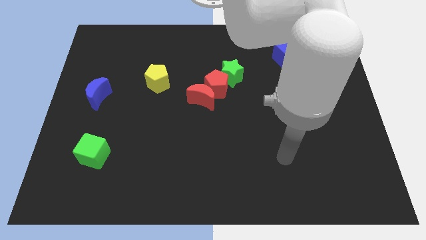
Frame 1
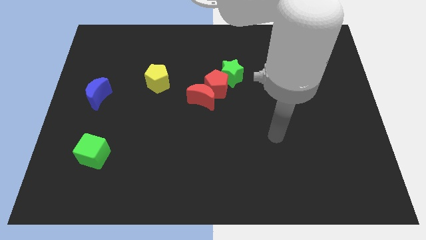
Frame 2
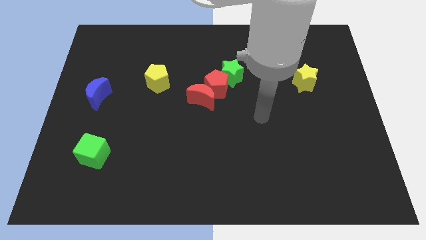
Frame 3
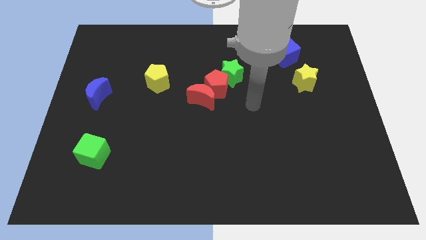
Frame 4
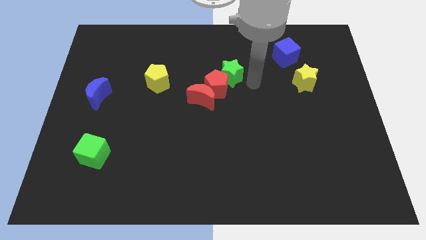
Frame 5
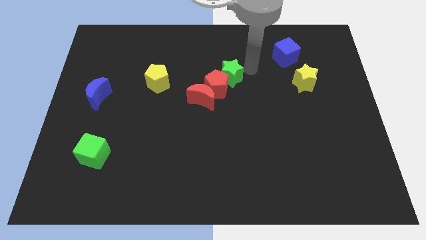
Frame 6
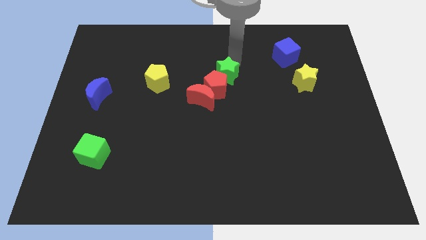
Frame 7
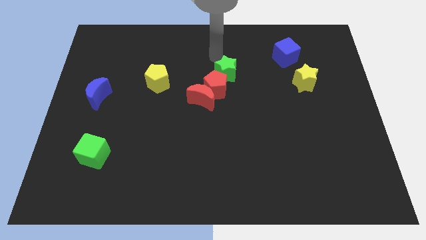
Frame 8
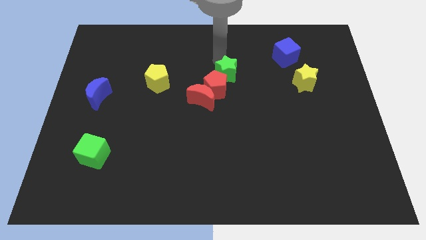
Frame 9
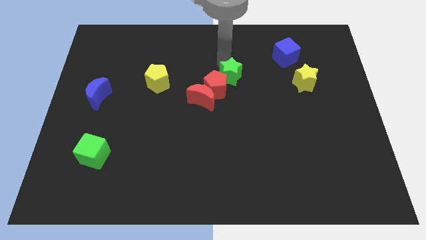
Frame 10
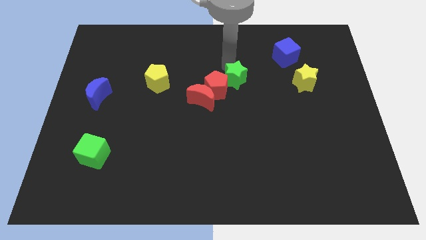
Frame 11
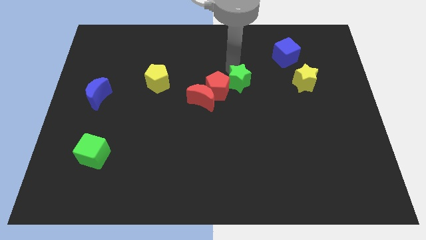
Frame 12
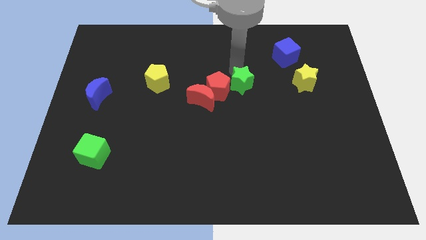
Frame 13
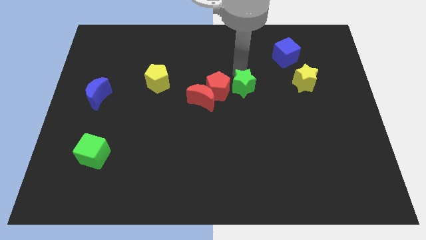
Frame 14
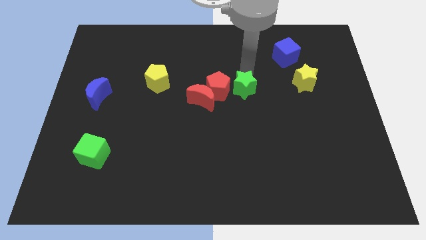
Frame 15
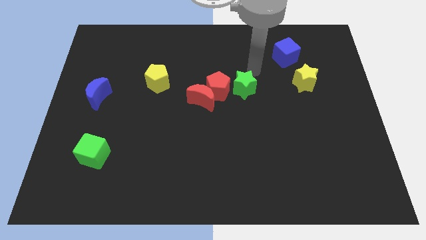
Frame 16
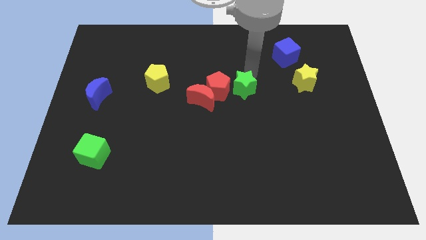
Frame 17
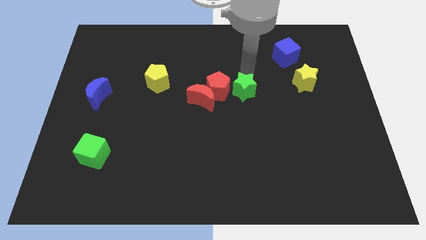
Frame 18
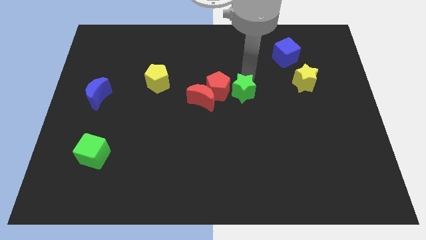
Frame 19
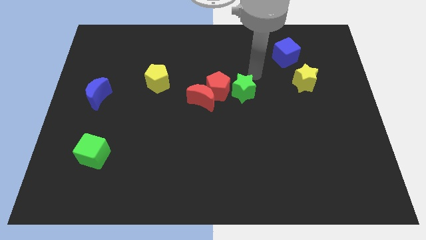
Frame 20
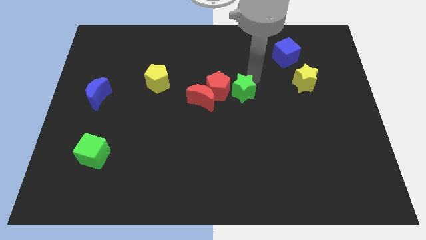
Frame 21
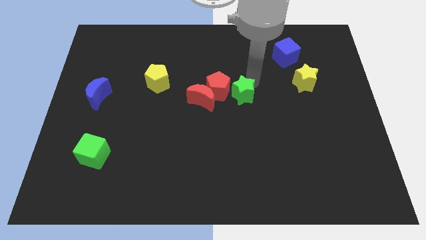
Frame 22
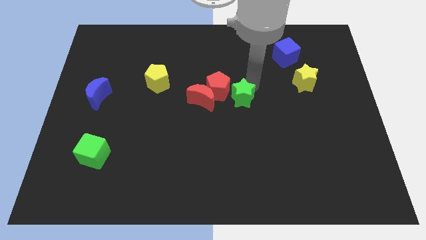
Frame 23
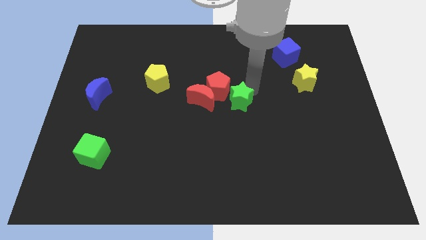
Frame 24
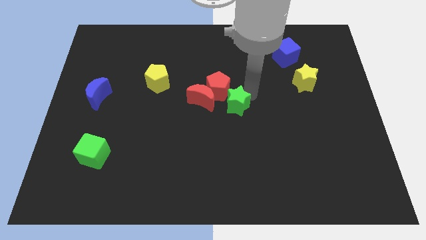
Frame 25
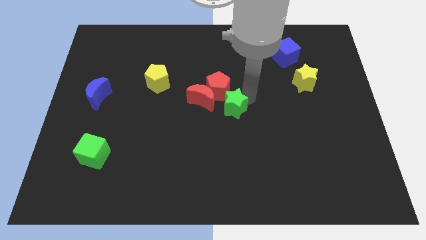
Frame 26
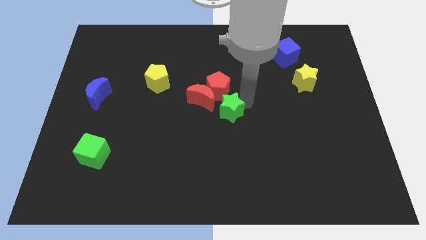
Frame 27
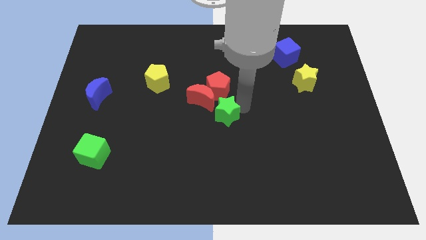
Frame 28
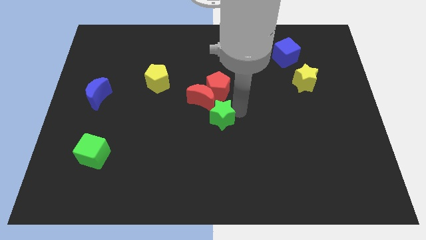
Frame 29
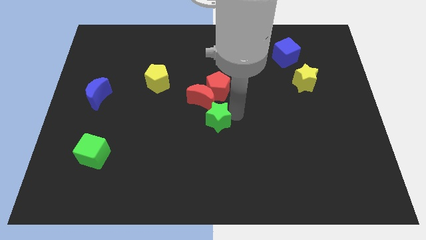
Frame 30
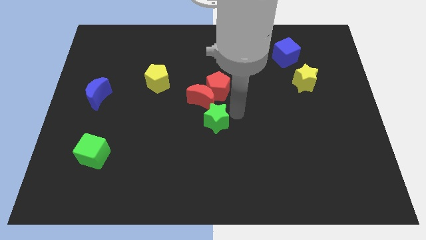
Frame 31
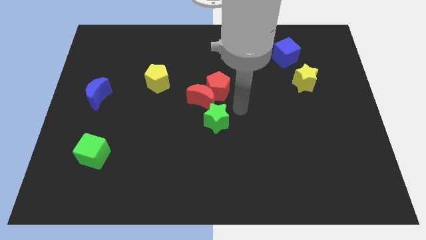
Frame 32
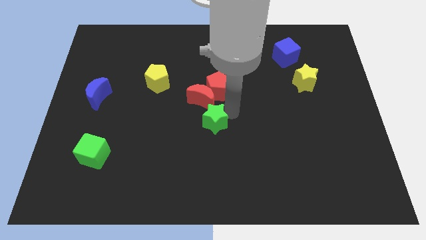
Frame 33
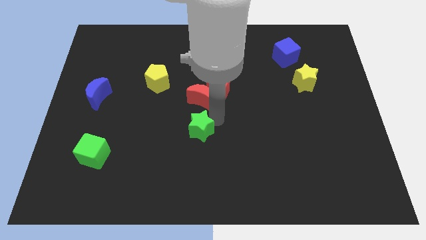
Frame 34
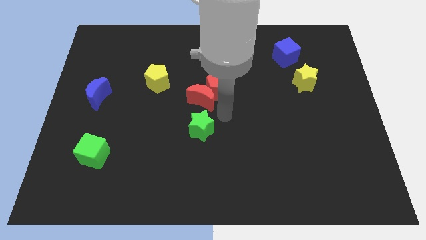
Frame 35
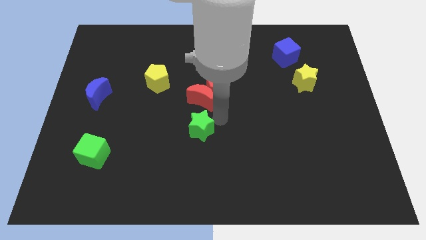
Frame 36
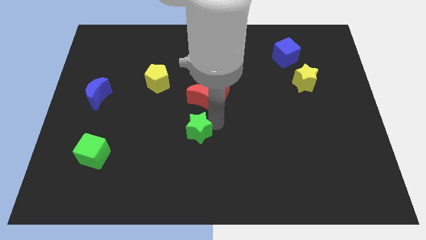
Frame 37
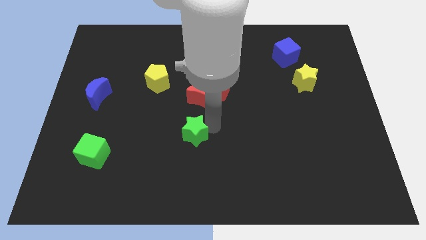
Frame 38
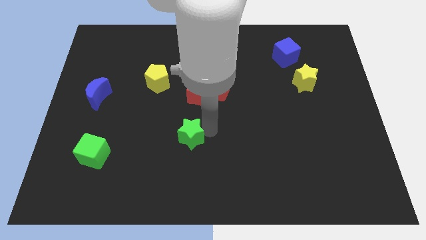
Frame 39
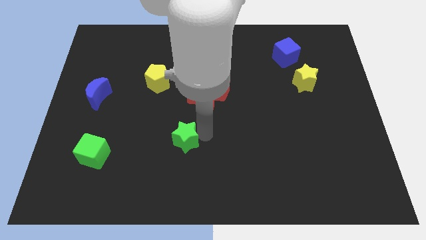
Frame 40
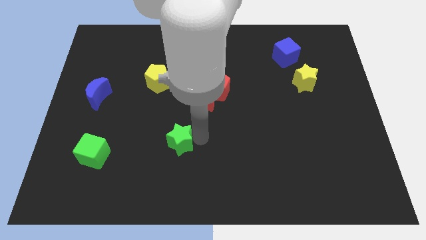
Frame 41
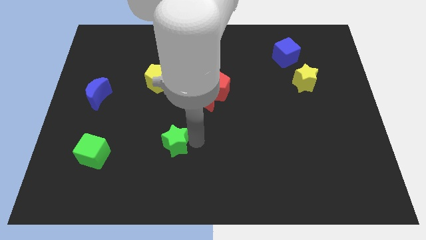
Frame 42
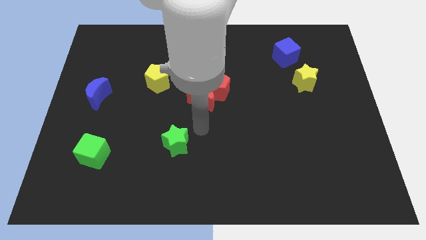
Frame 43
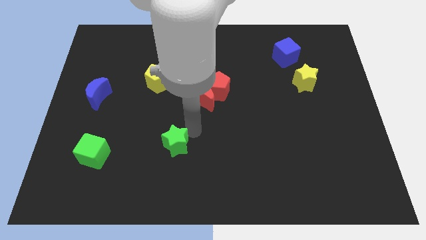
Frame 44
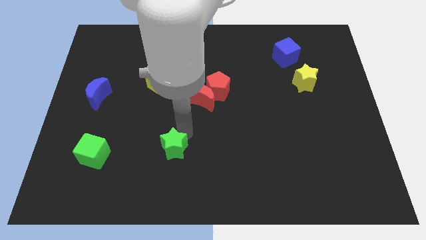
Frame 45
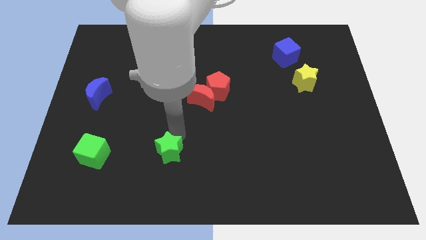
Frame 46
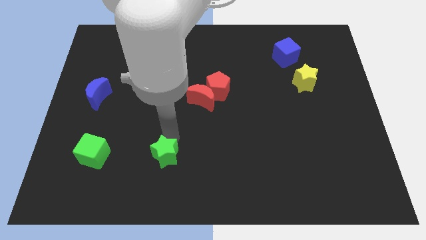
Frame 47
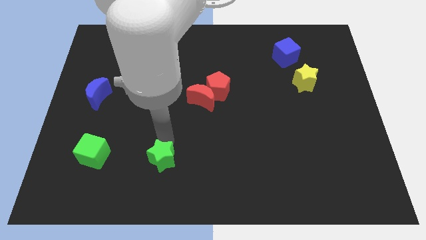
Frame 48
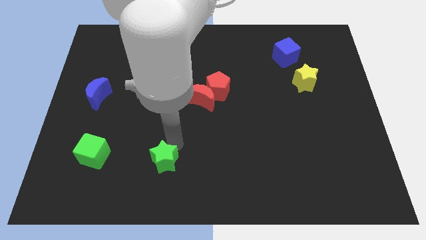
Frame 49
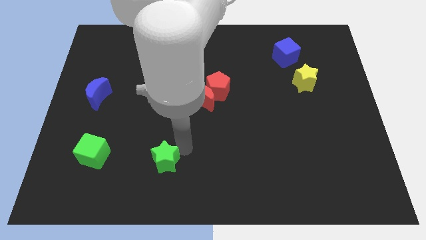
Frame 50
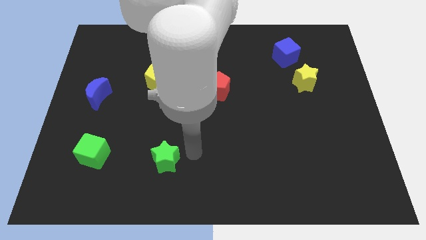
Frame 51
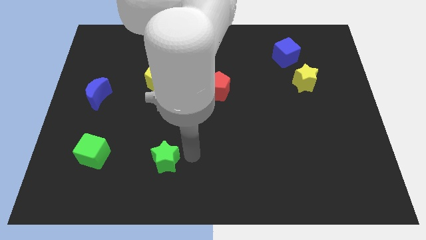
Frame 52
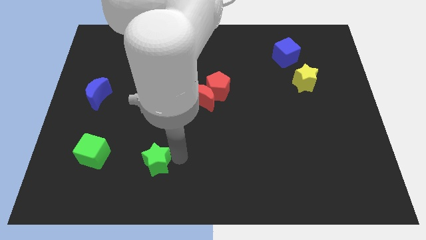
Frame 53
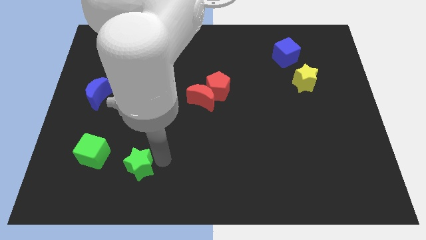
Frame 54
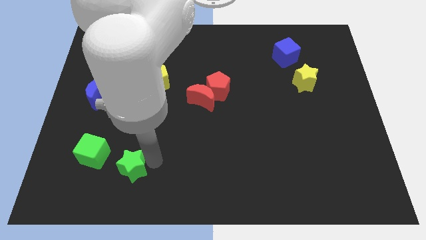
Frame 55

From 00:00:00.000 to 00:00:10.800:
push the green star to the bottom right side of the green cube

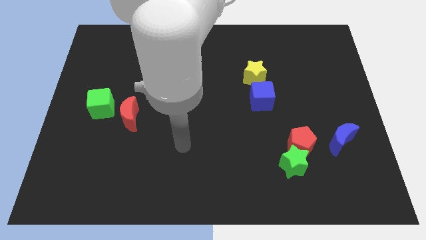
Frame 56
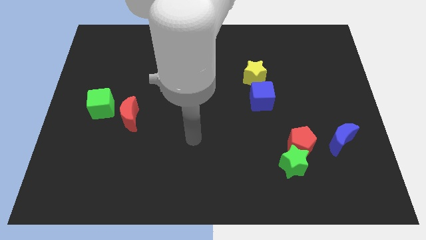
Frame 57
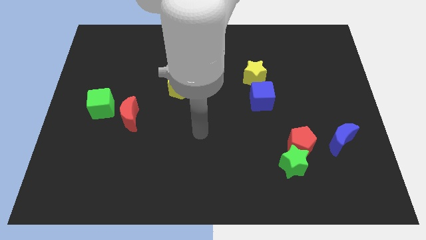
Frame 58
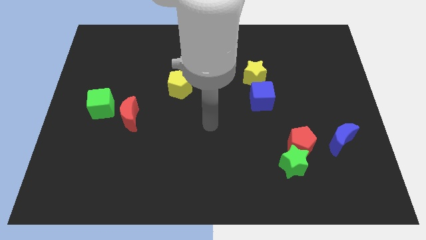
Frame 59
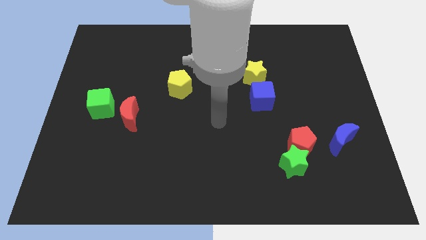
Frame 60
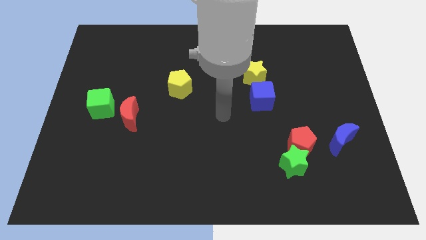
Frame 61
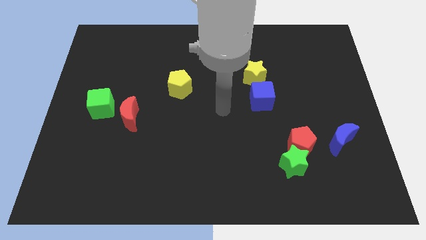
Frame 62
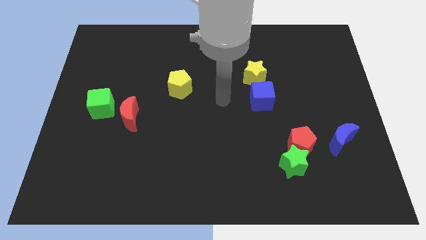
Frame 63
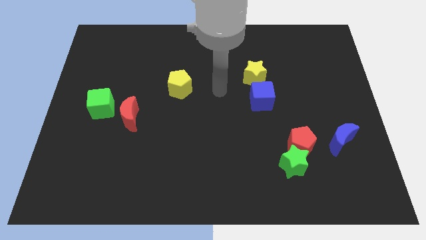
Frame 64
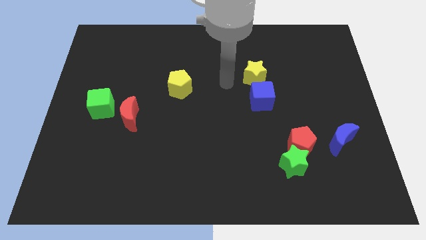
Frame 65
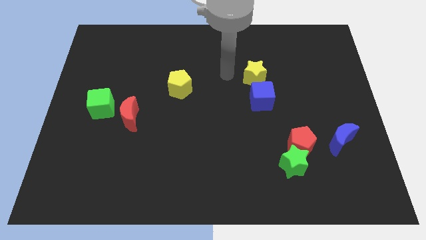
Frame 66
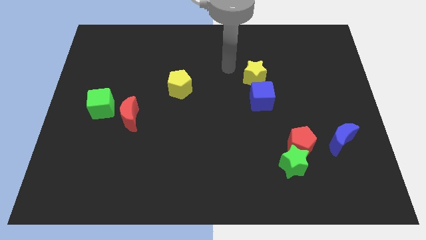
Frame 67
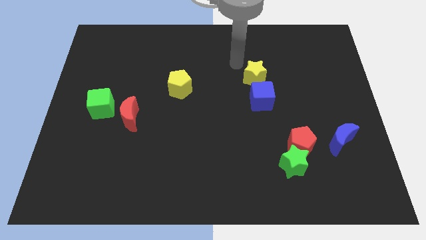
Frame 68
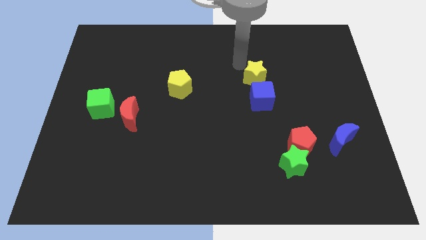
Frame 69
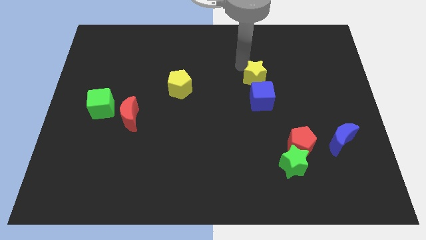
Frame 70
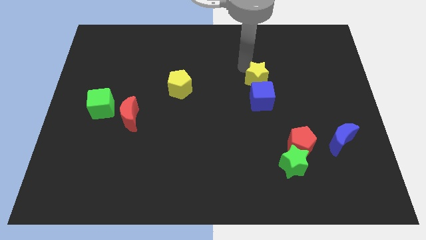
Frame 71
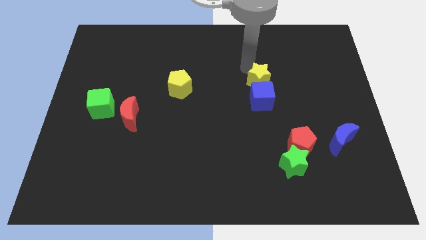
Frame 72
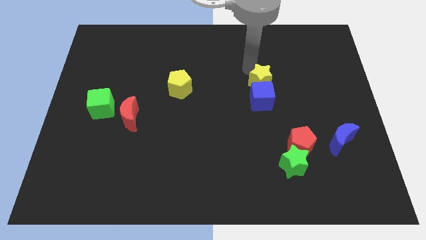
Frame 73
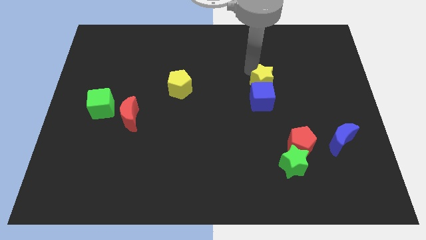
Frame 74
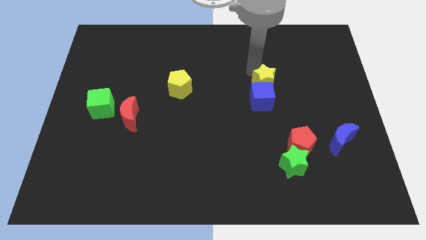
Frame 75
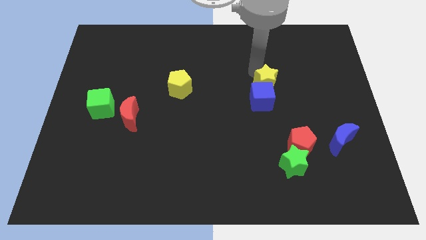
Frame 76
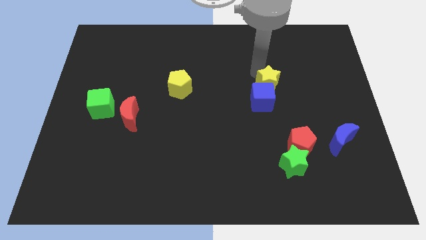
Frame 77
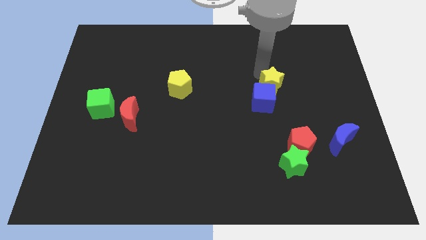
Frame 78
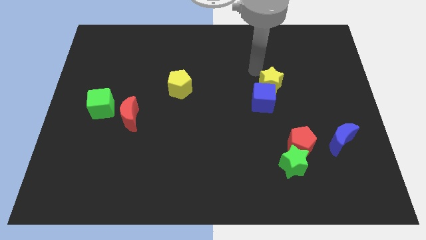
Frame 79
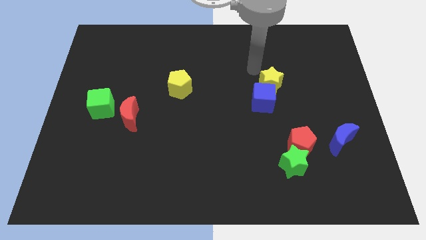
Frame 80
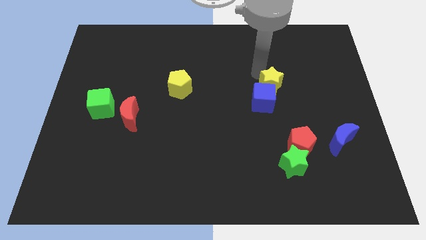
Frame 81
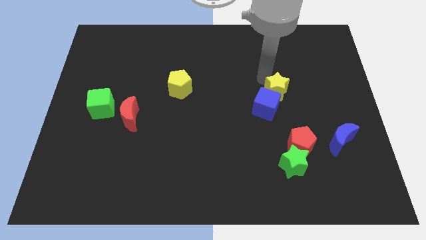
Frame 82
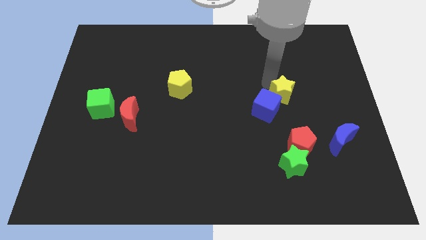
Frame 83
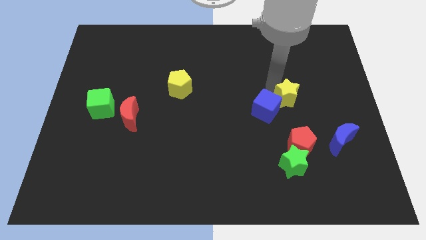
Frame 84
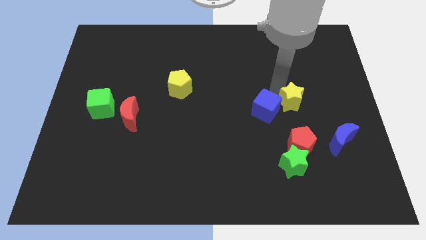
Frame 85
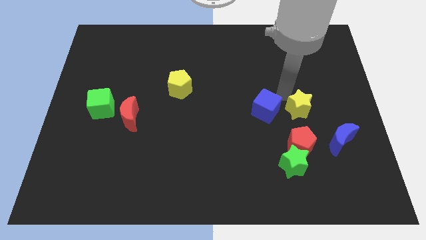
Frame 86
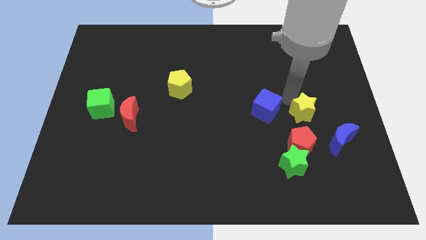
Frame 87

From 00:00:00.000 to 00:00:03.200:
push the yellow star to the top right of the red pentagon
